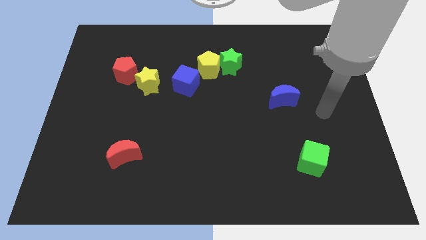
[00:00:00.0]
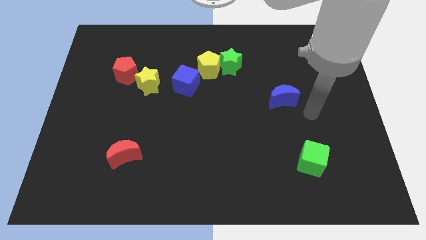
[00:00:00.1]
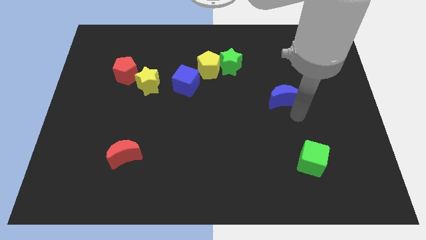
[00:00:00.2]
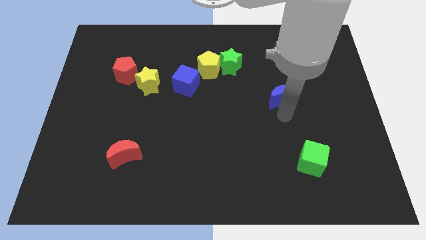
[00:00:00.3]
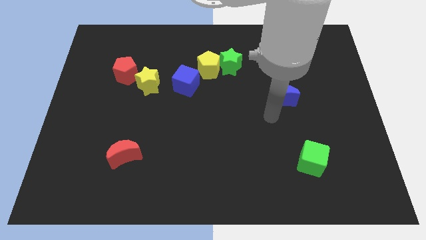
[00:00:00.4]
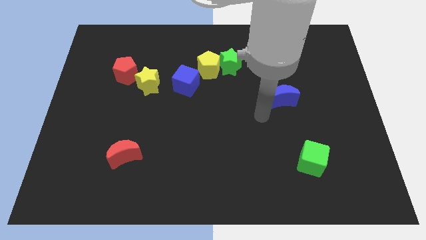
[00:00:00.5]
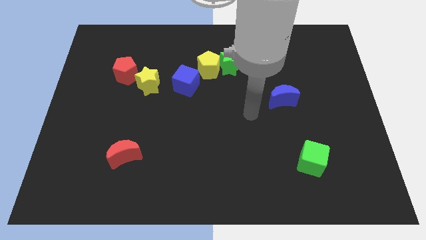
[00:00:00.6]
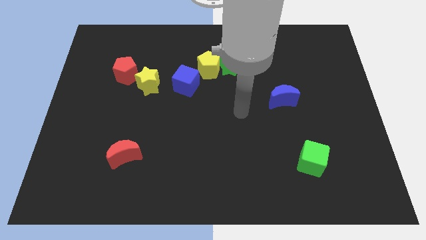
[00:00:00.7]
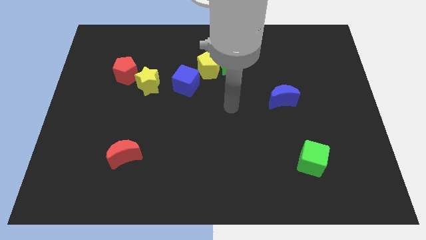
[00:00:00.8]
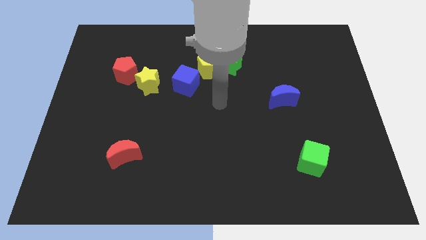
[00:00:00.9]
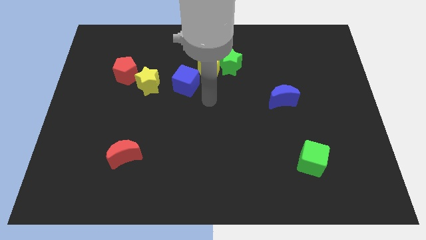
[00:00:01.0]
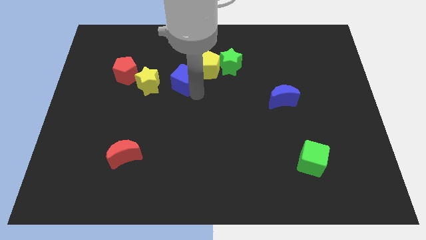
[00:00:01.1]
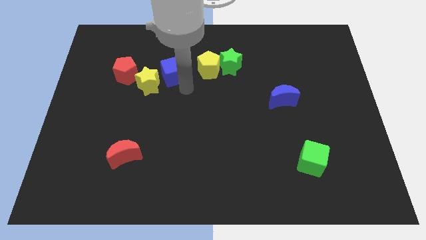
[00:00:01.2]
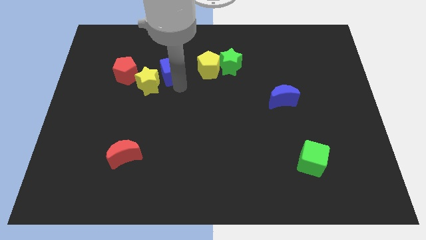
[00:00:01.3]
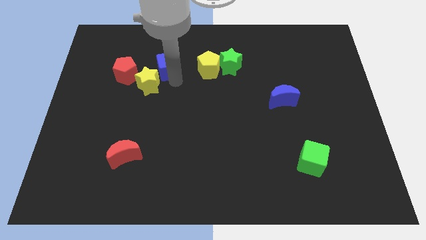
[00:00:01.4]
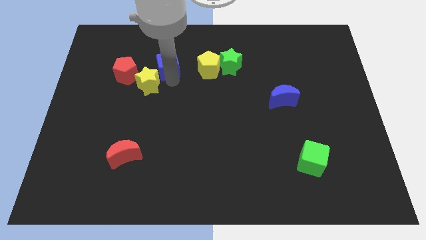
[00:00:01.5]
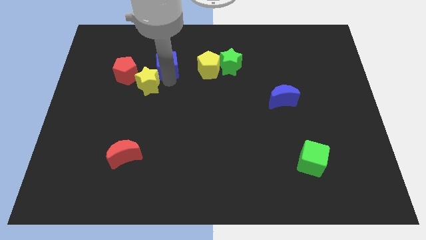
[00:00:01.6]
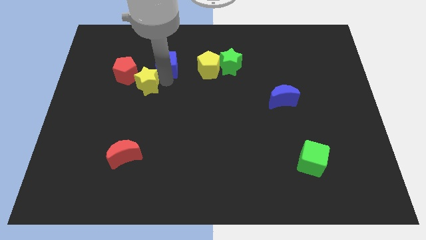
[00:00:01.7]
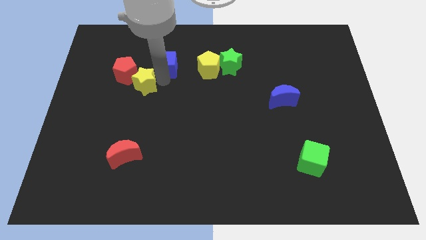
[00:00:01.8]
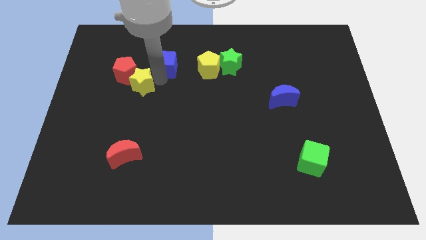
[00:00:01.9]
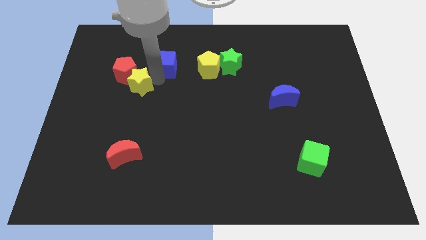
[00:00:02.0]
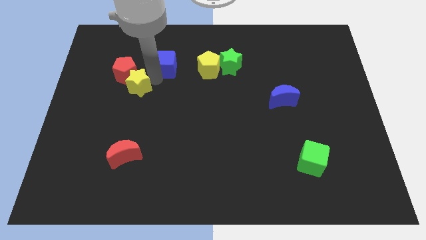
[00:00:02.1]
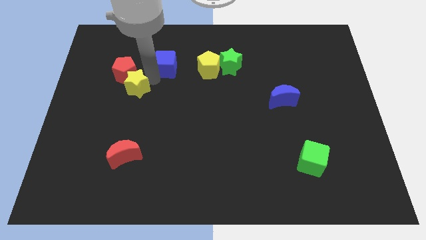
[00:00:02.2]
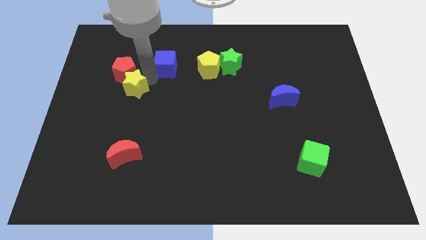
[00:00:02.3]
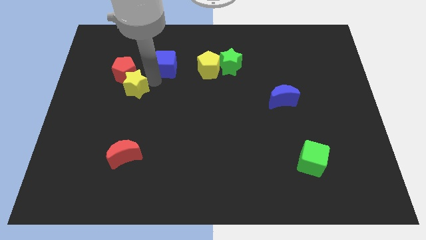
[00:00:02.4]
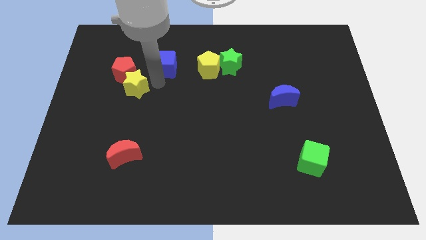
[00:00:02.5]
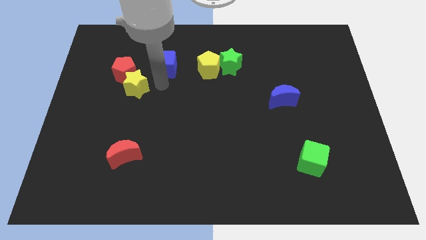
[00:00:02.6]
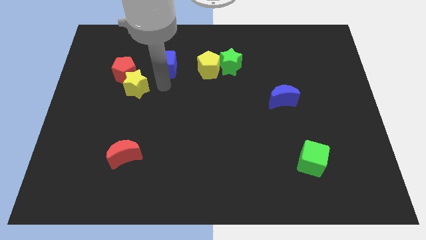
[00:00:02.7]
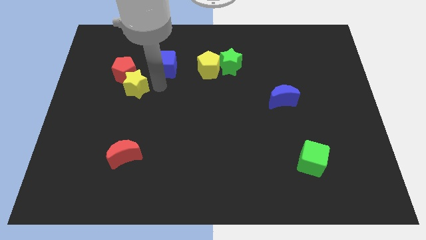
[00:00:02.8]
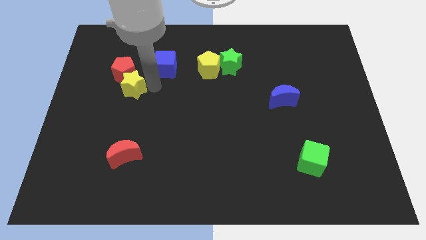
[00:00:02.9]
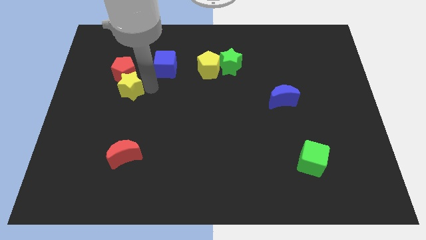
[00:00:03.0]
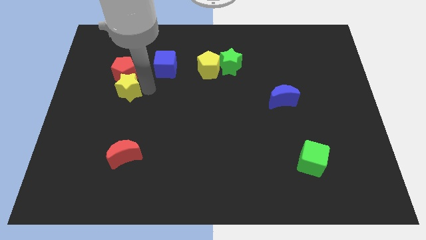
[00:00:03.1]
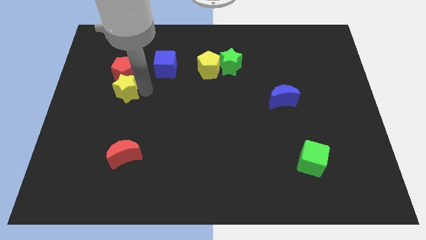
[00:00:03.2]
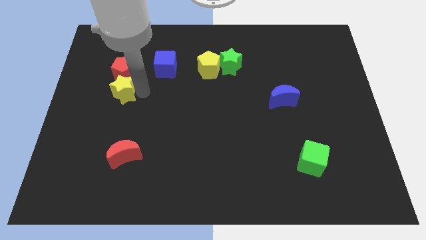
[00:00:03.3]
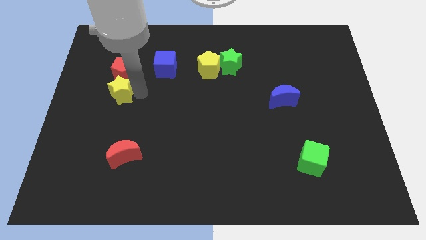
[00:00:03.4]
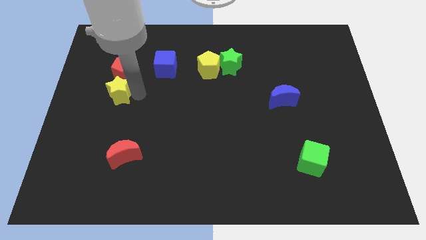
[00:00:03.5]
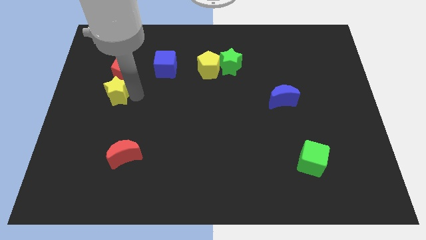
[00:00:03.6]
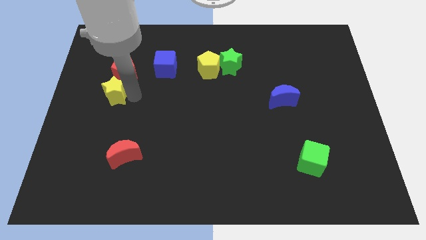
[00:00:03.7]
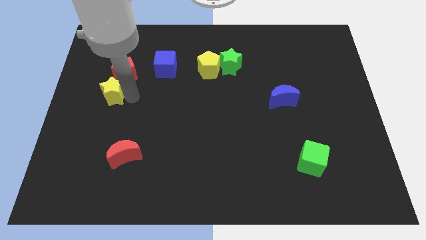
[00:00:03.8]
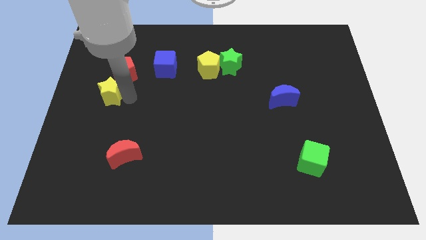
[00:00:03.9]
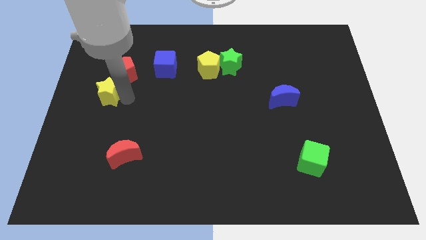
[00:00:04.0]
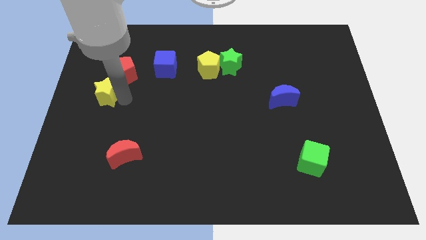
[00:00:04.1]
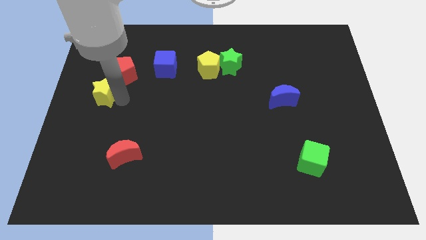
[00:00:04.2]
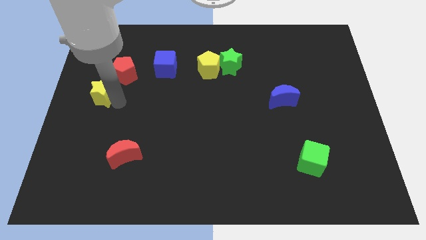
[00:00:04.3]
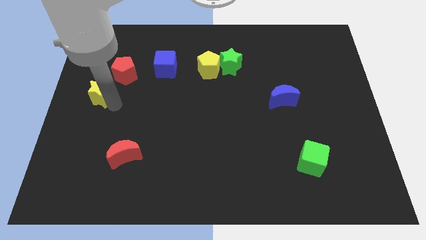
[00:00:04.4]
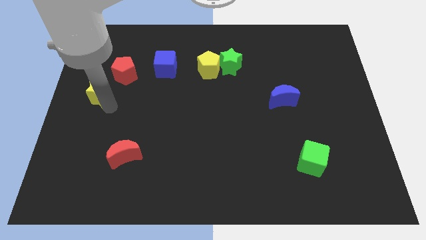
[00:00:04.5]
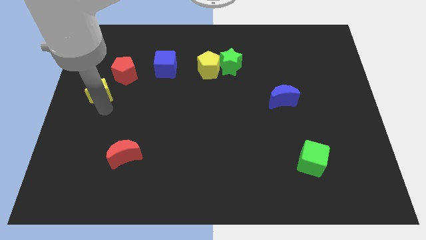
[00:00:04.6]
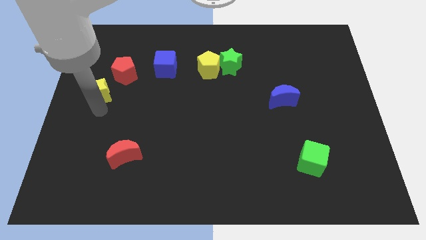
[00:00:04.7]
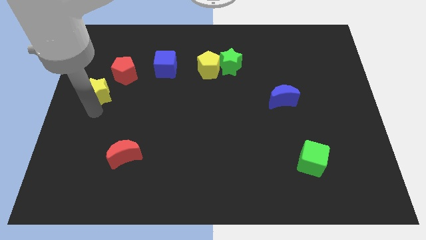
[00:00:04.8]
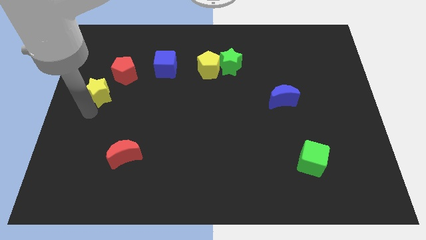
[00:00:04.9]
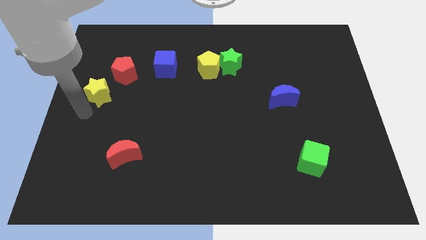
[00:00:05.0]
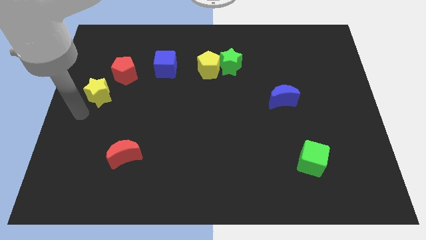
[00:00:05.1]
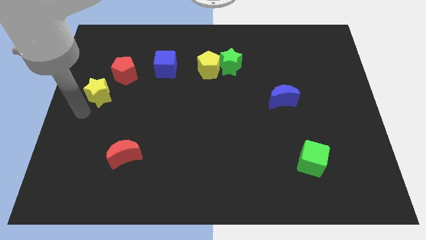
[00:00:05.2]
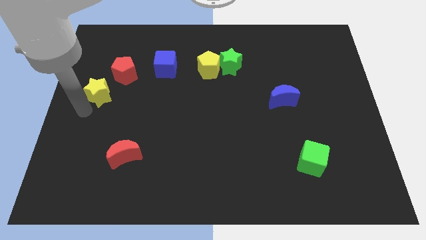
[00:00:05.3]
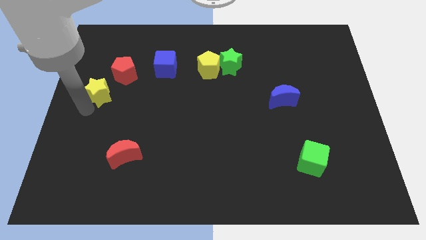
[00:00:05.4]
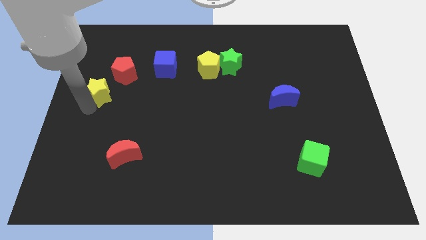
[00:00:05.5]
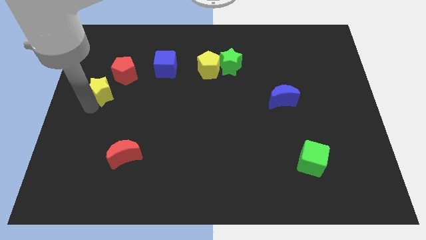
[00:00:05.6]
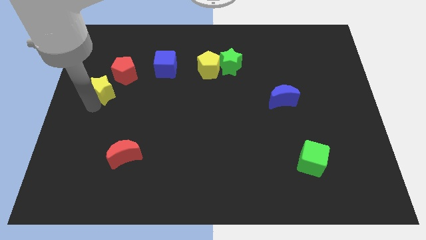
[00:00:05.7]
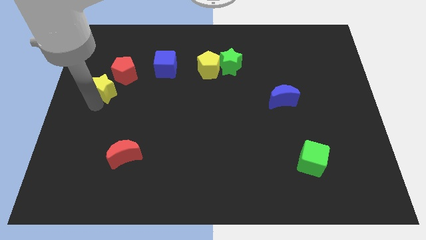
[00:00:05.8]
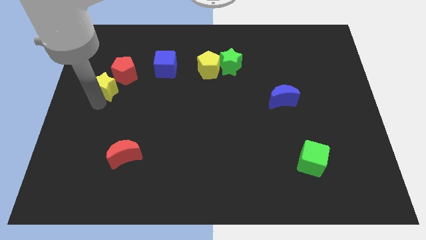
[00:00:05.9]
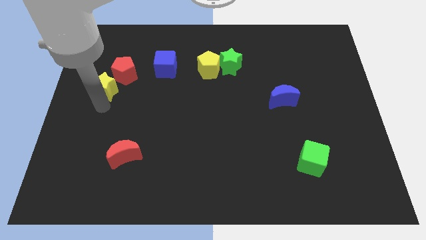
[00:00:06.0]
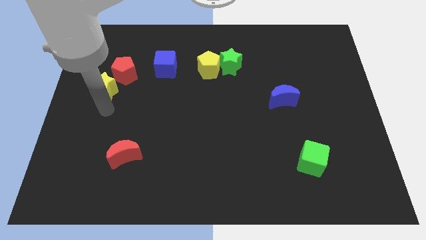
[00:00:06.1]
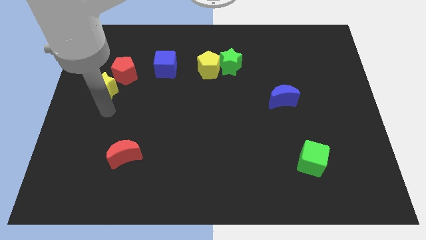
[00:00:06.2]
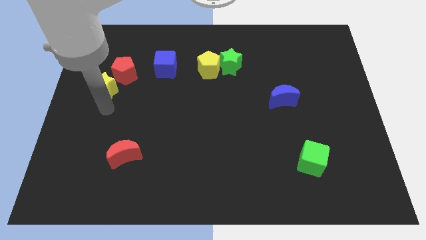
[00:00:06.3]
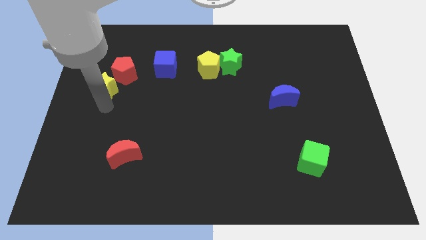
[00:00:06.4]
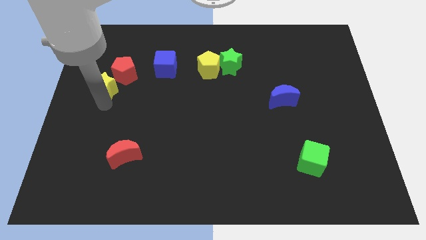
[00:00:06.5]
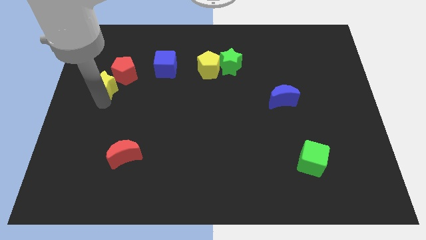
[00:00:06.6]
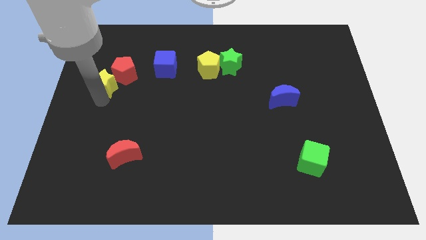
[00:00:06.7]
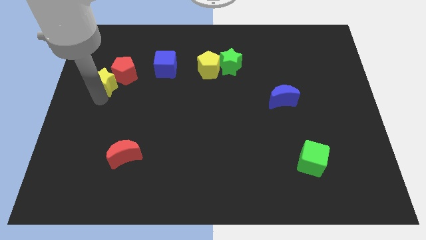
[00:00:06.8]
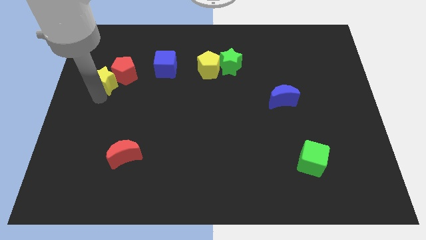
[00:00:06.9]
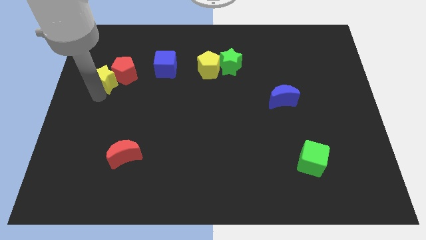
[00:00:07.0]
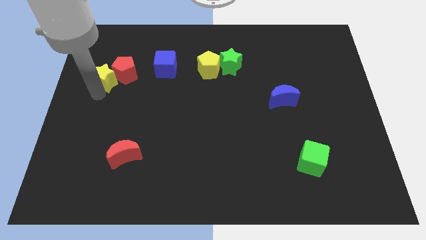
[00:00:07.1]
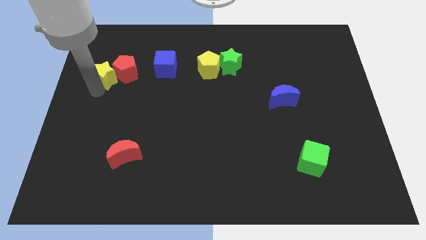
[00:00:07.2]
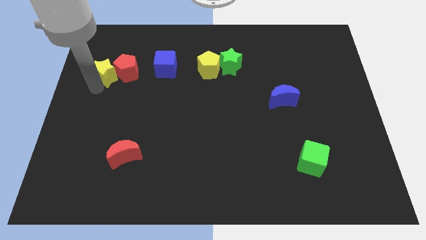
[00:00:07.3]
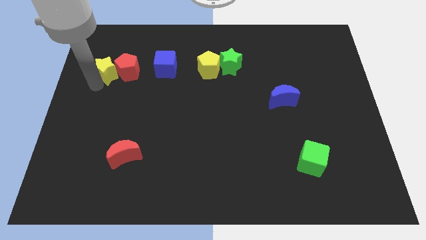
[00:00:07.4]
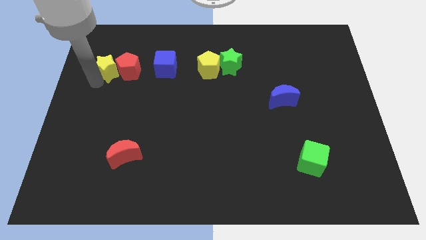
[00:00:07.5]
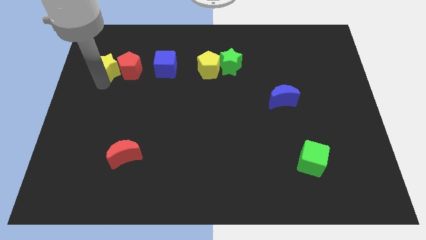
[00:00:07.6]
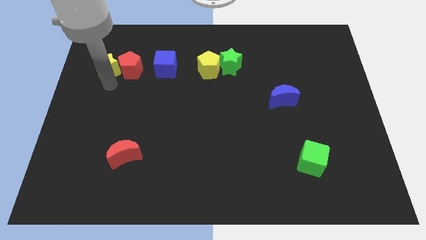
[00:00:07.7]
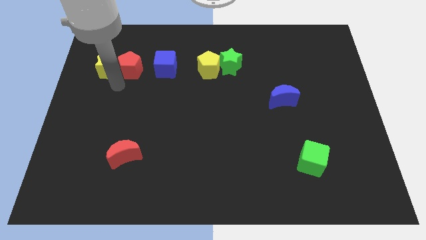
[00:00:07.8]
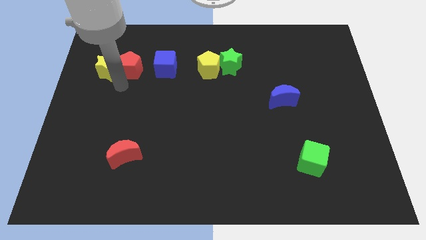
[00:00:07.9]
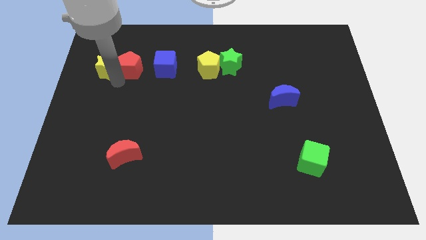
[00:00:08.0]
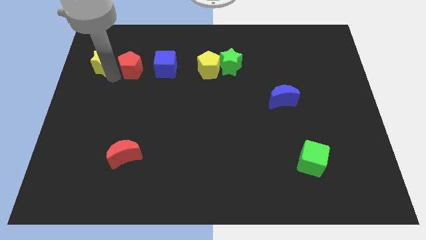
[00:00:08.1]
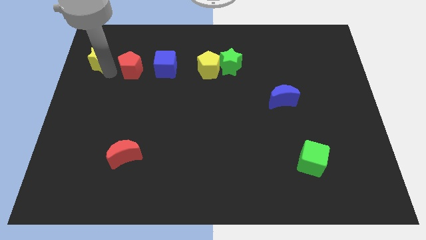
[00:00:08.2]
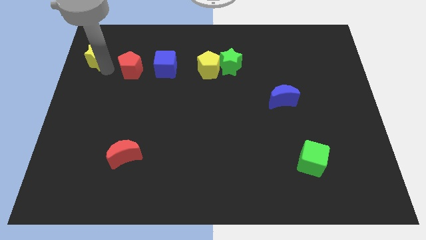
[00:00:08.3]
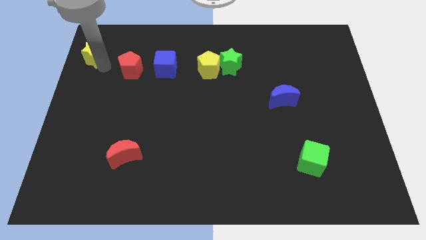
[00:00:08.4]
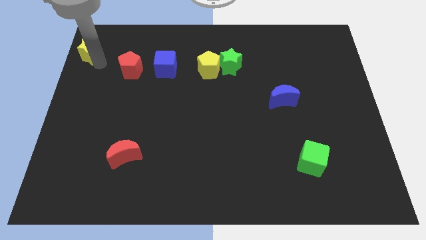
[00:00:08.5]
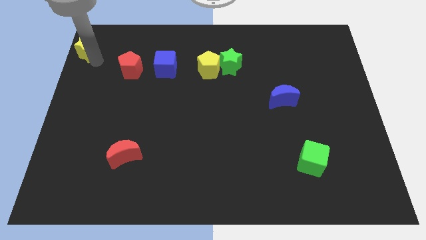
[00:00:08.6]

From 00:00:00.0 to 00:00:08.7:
slide the yellow star to the top left
